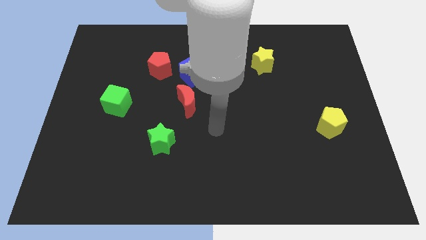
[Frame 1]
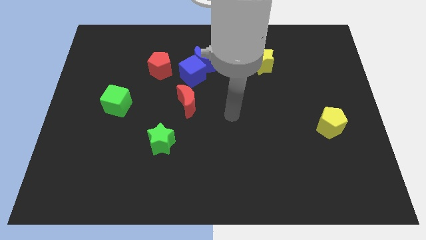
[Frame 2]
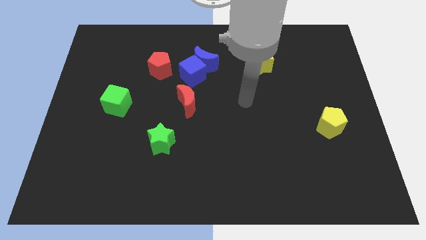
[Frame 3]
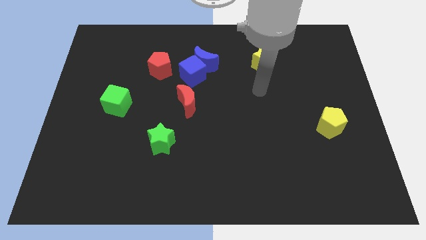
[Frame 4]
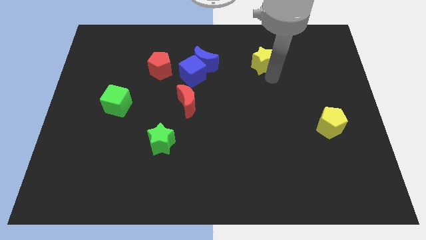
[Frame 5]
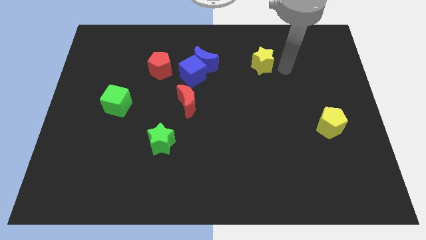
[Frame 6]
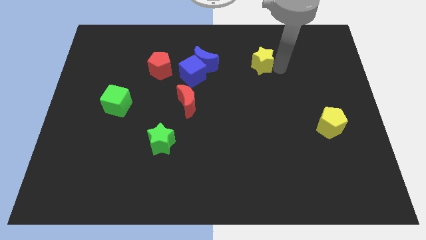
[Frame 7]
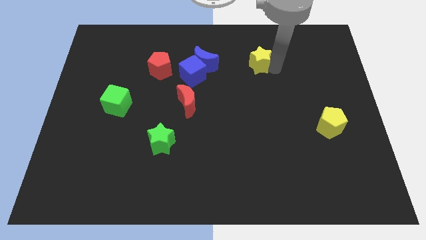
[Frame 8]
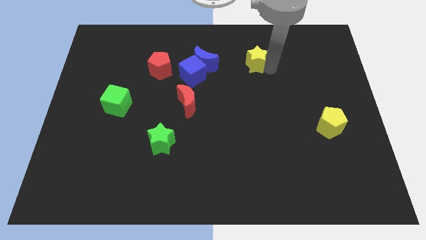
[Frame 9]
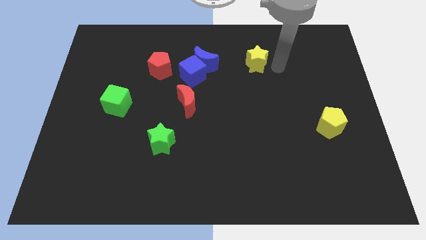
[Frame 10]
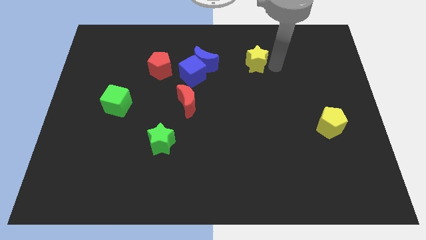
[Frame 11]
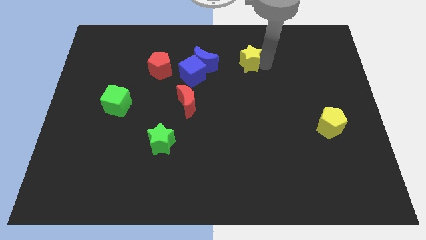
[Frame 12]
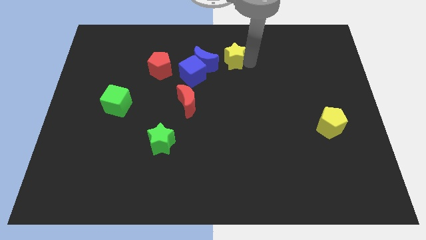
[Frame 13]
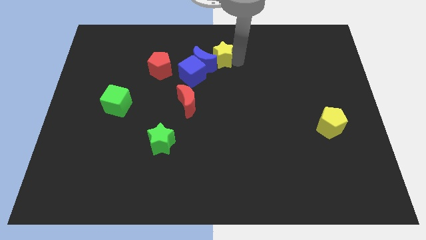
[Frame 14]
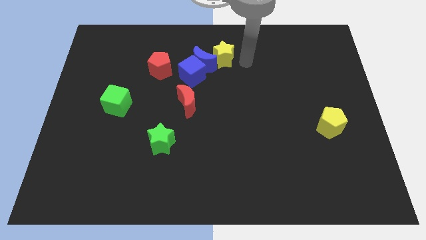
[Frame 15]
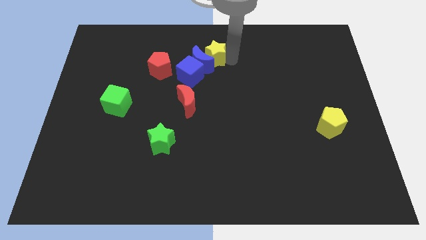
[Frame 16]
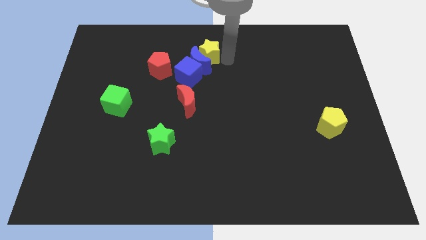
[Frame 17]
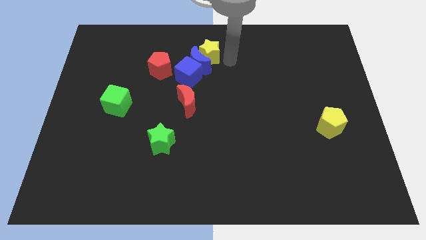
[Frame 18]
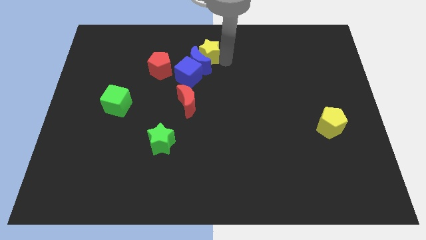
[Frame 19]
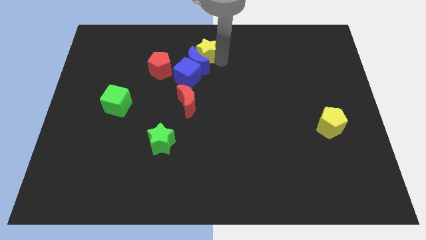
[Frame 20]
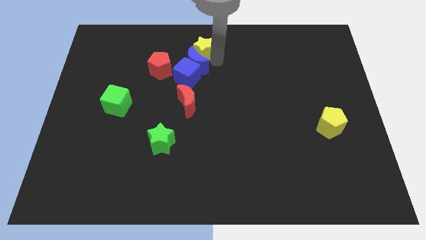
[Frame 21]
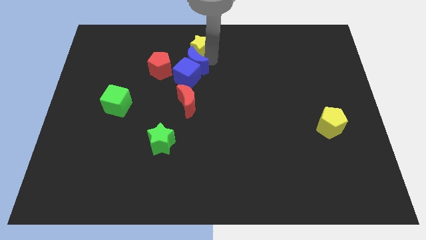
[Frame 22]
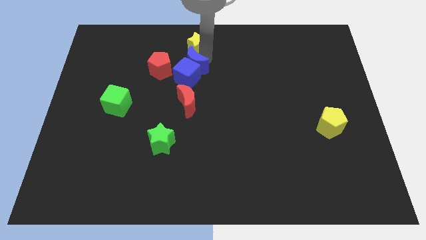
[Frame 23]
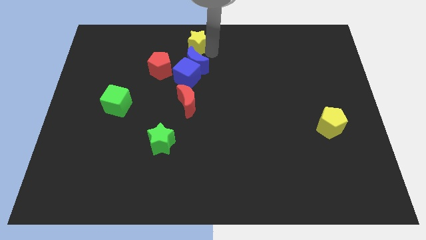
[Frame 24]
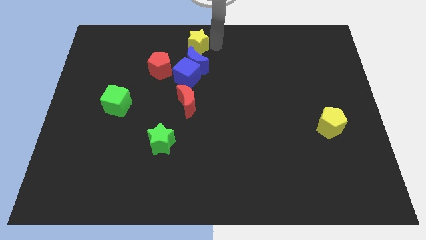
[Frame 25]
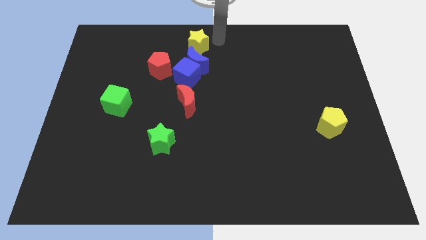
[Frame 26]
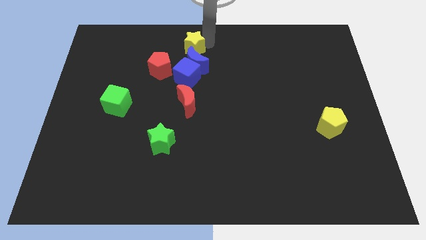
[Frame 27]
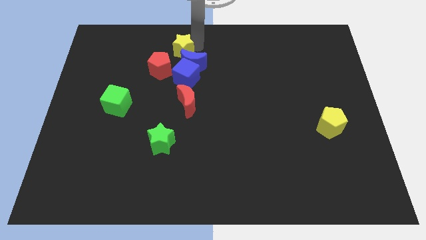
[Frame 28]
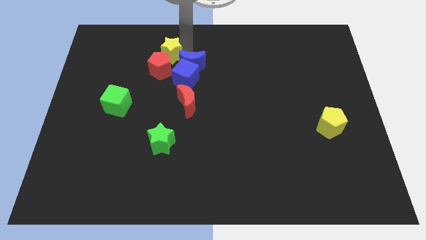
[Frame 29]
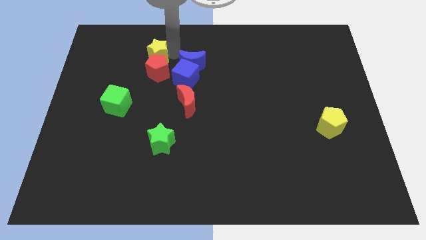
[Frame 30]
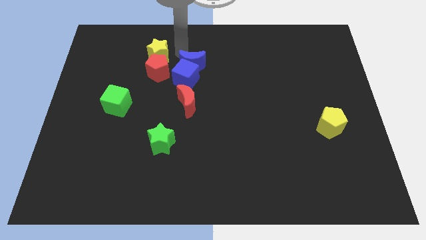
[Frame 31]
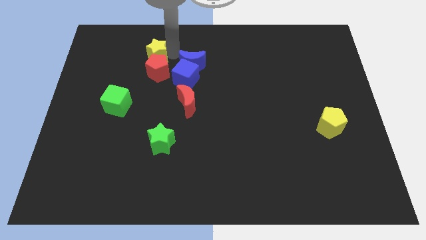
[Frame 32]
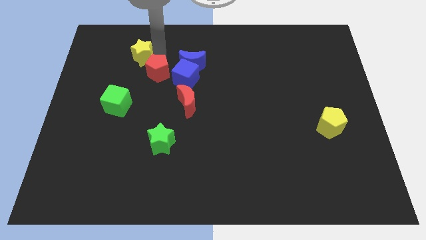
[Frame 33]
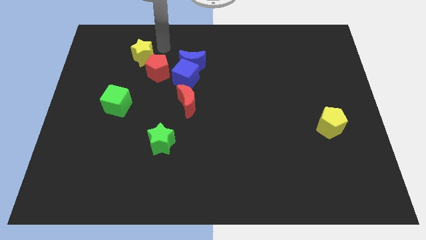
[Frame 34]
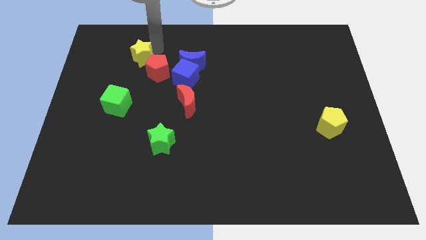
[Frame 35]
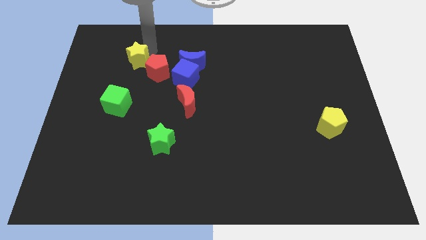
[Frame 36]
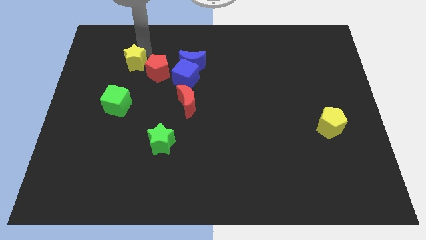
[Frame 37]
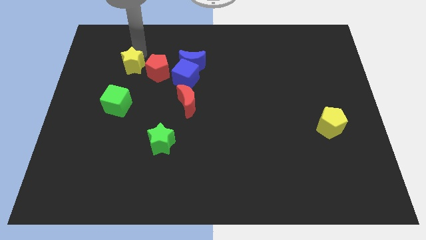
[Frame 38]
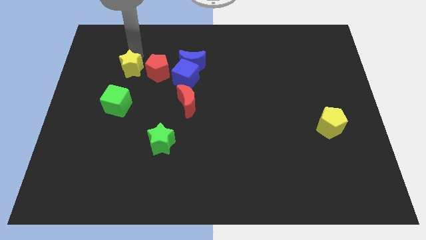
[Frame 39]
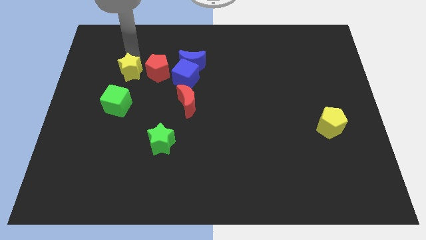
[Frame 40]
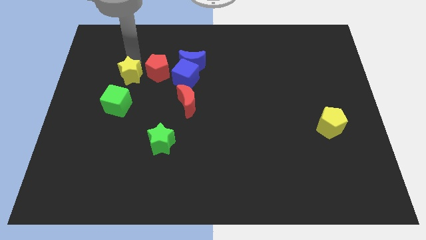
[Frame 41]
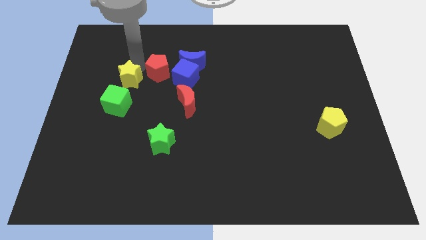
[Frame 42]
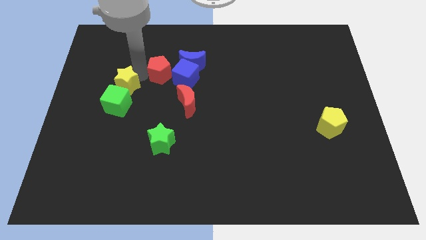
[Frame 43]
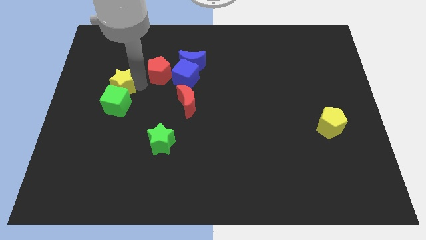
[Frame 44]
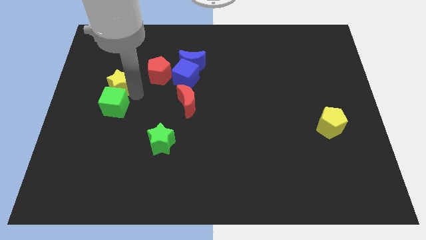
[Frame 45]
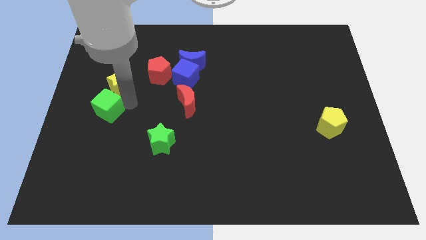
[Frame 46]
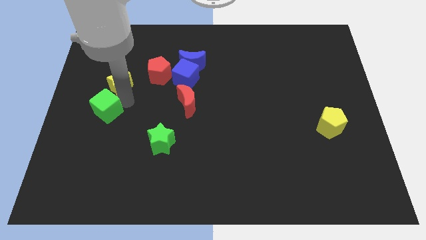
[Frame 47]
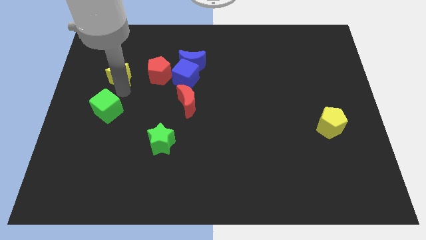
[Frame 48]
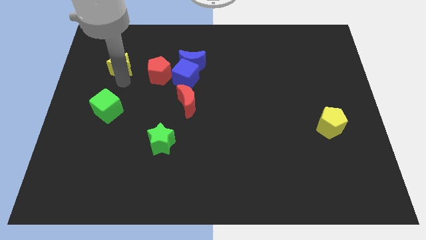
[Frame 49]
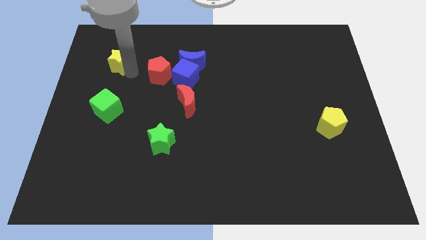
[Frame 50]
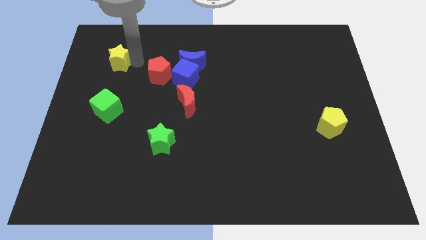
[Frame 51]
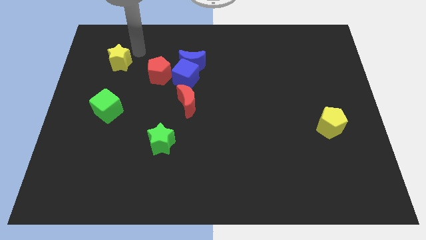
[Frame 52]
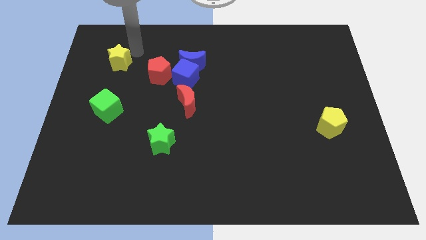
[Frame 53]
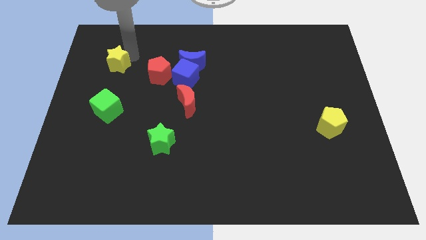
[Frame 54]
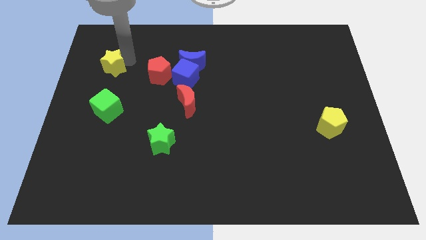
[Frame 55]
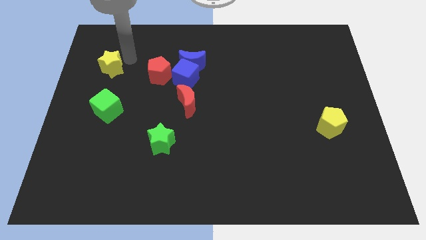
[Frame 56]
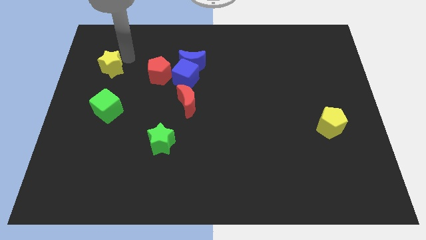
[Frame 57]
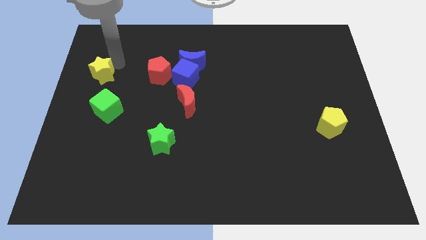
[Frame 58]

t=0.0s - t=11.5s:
move the yellow star to the left side of the board
